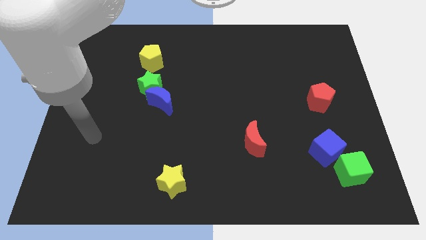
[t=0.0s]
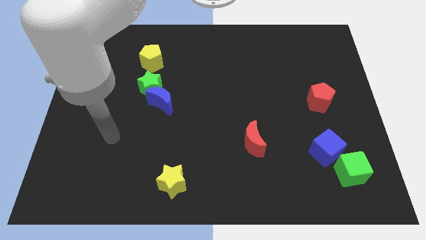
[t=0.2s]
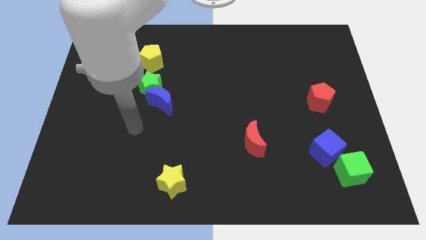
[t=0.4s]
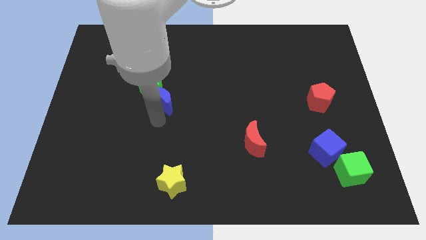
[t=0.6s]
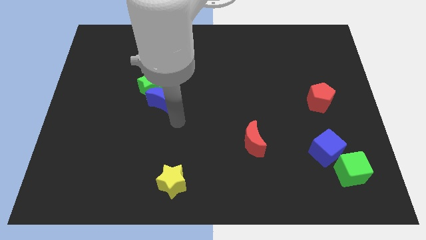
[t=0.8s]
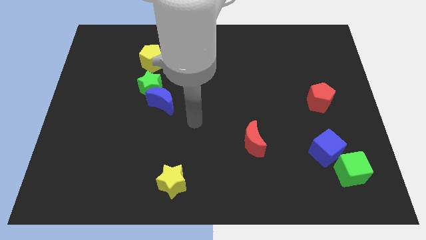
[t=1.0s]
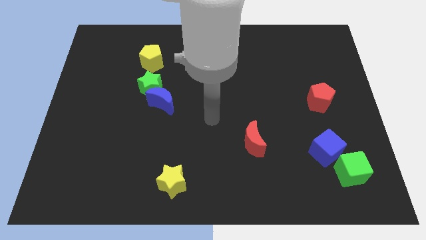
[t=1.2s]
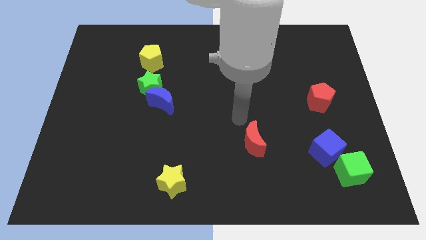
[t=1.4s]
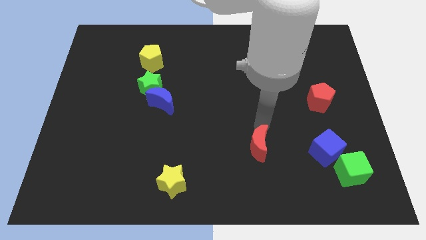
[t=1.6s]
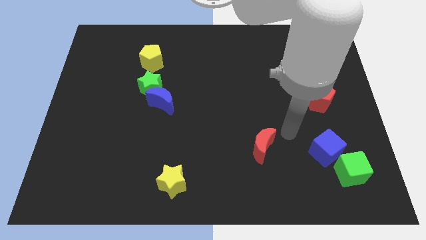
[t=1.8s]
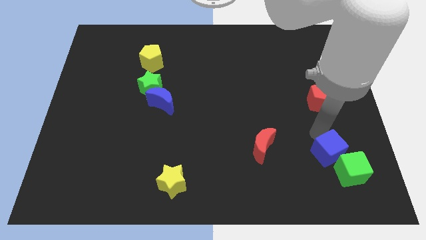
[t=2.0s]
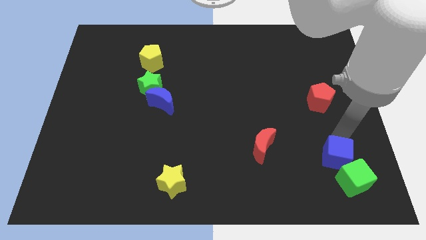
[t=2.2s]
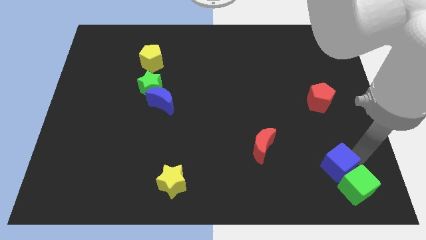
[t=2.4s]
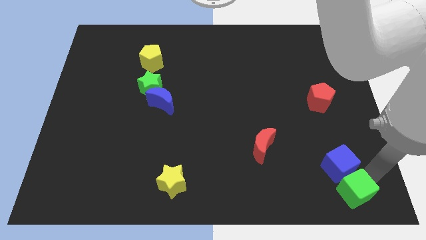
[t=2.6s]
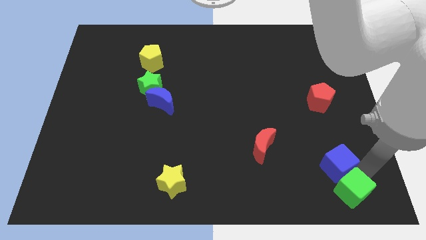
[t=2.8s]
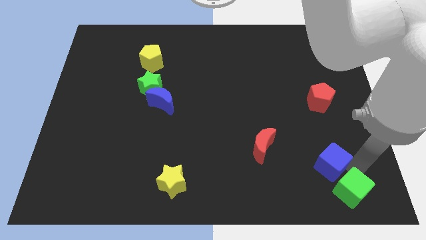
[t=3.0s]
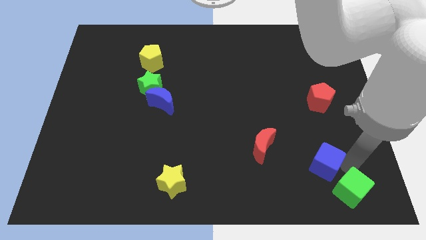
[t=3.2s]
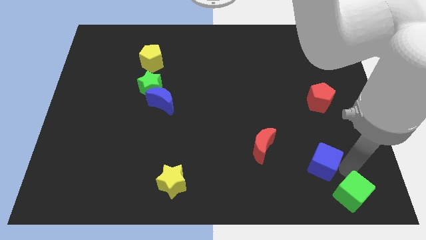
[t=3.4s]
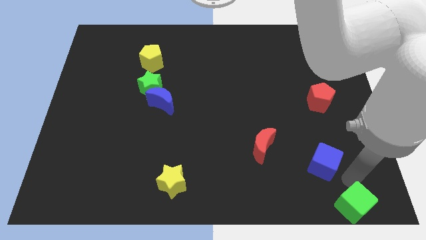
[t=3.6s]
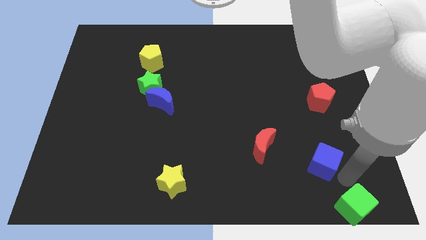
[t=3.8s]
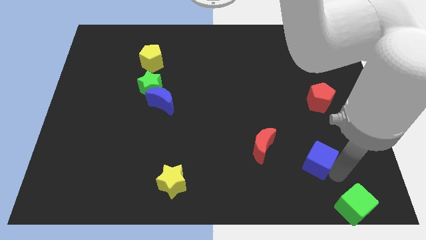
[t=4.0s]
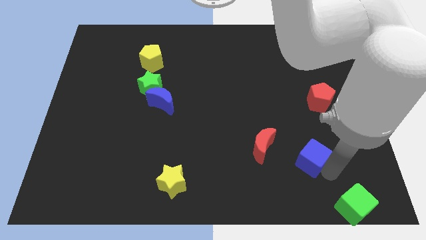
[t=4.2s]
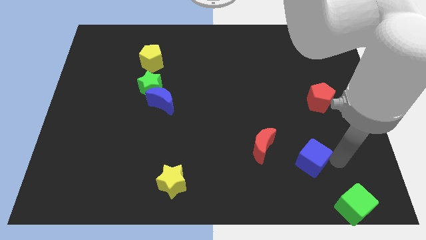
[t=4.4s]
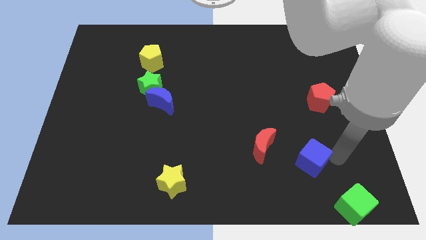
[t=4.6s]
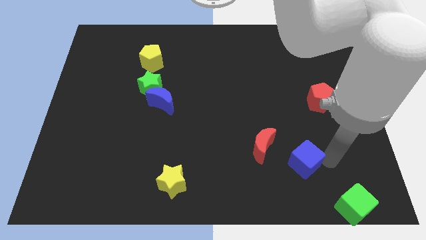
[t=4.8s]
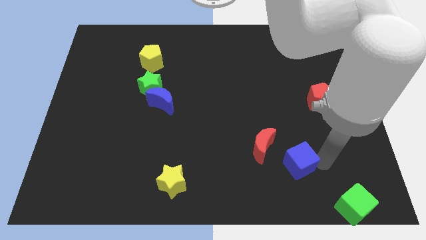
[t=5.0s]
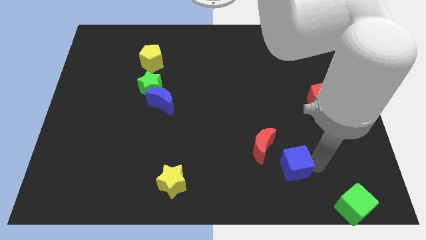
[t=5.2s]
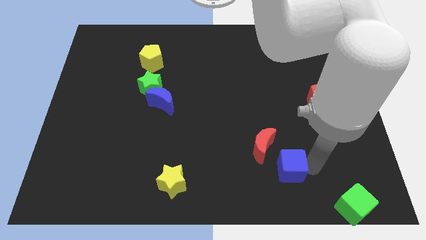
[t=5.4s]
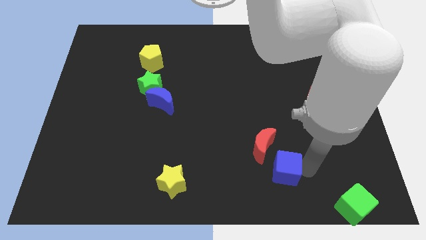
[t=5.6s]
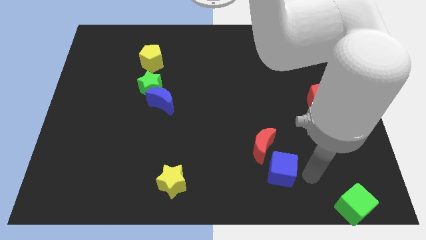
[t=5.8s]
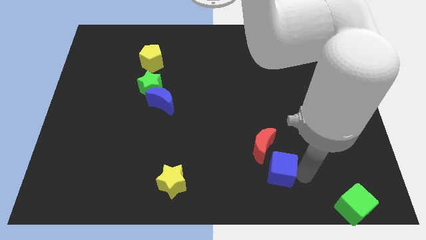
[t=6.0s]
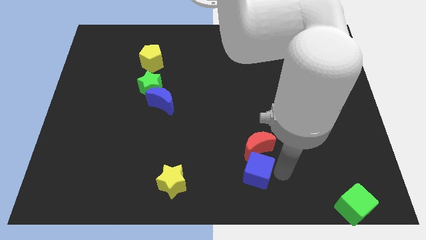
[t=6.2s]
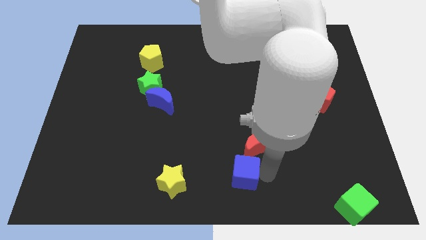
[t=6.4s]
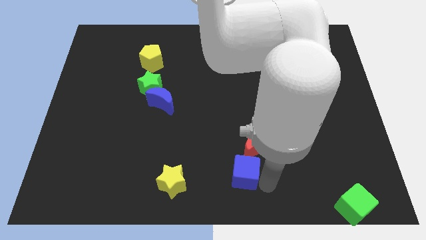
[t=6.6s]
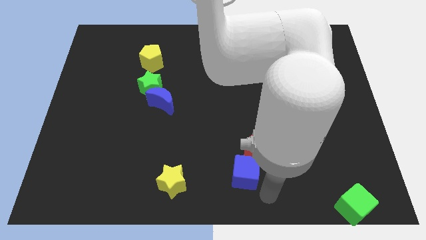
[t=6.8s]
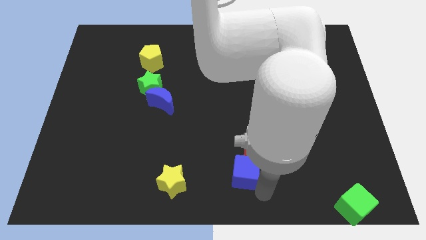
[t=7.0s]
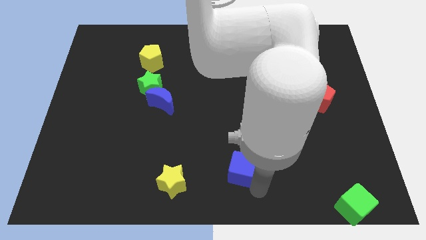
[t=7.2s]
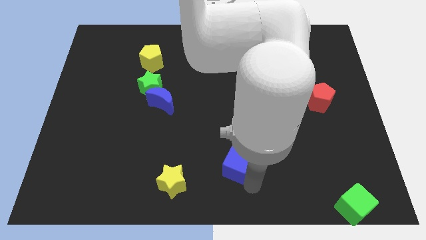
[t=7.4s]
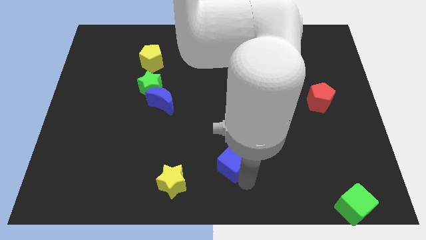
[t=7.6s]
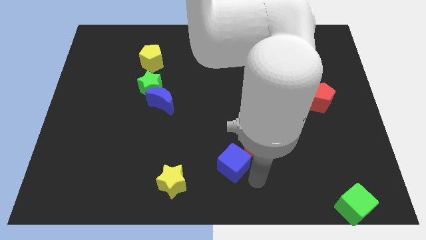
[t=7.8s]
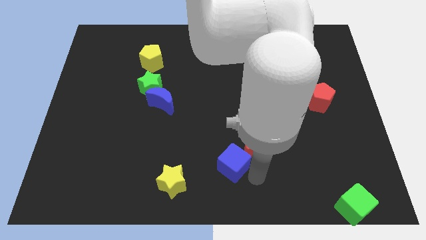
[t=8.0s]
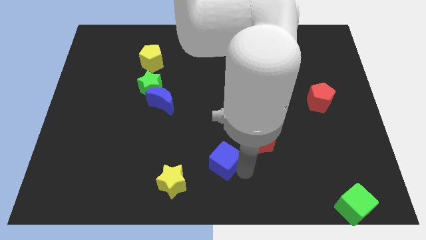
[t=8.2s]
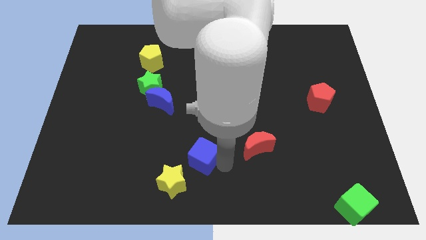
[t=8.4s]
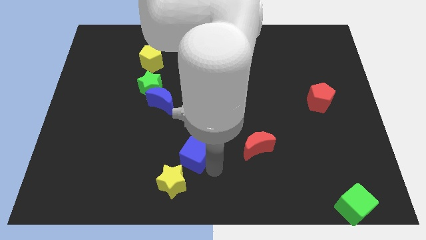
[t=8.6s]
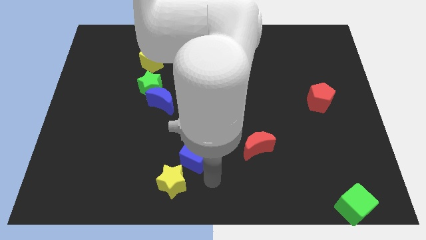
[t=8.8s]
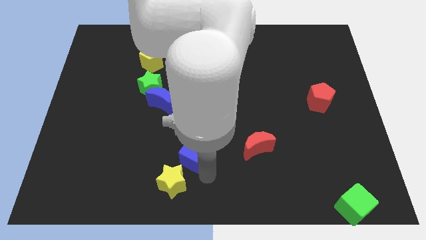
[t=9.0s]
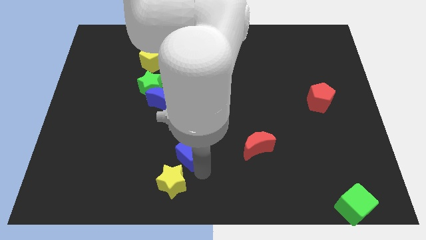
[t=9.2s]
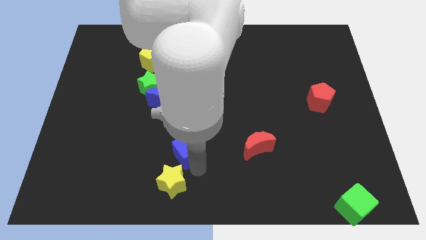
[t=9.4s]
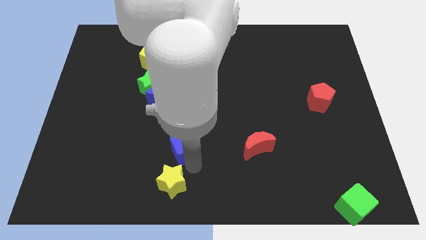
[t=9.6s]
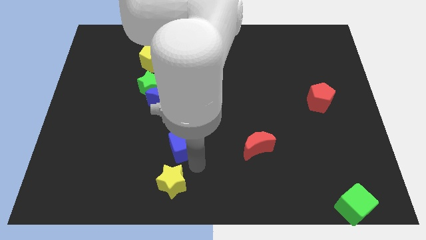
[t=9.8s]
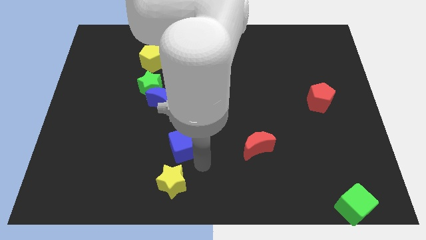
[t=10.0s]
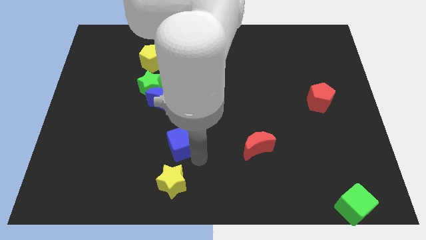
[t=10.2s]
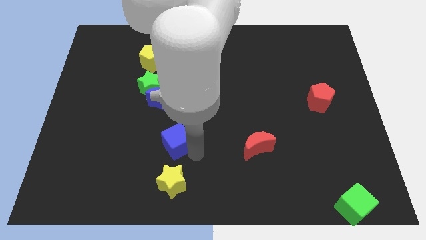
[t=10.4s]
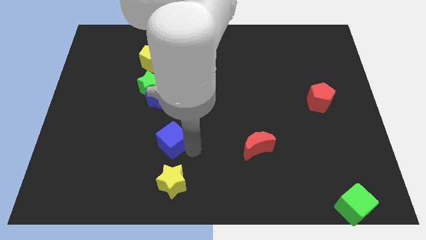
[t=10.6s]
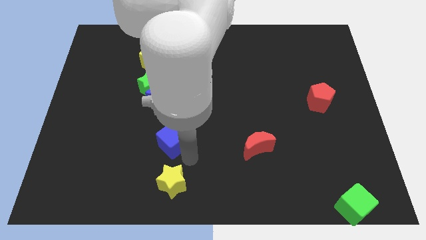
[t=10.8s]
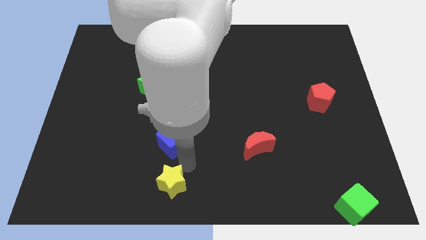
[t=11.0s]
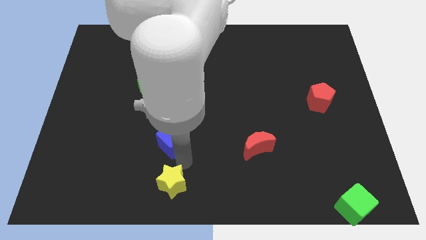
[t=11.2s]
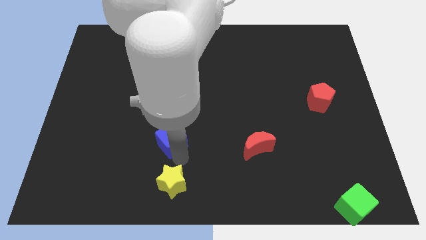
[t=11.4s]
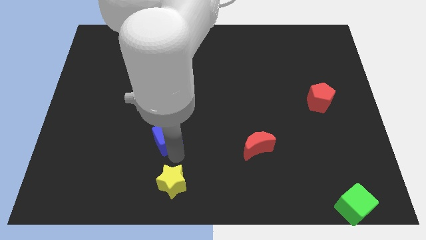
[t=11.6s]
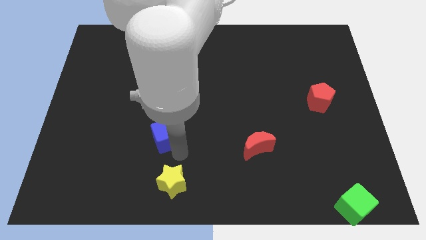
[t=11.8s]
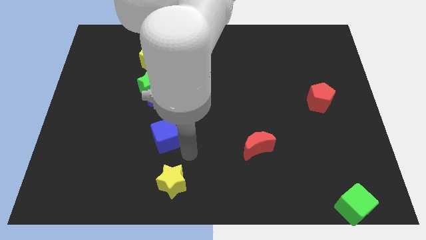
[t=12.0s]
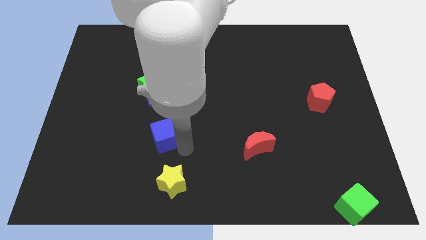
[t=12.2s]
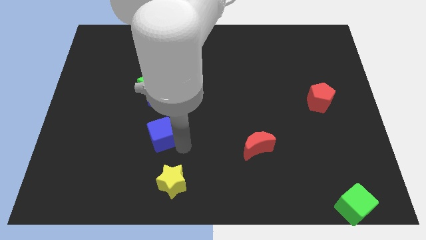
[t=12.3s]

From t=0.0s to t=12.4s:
slide the blue cube to the bottom side of the green star

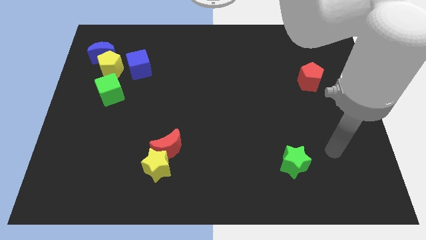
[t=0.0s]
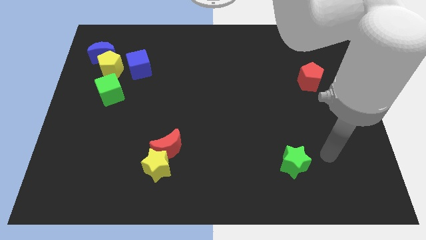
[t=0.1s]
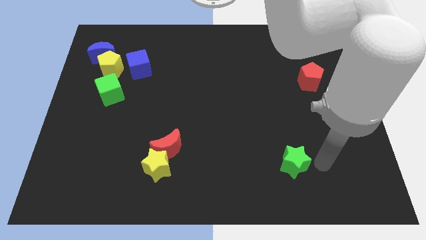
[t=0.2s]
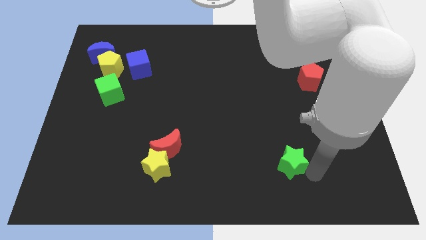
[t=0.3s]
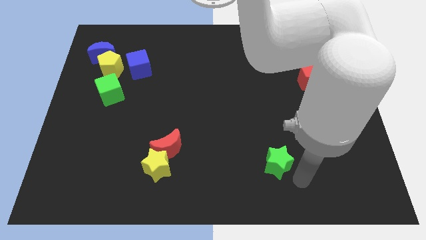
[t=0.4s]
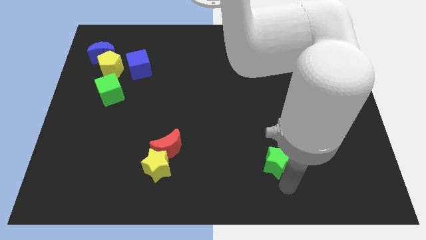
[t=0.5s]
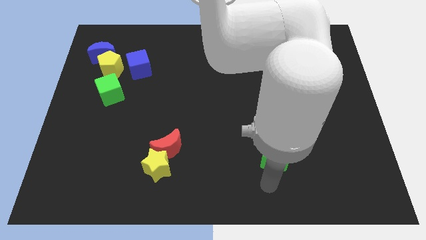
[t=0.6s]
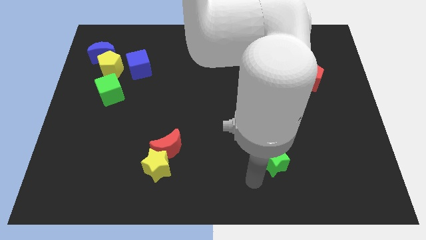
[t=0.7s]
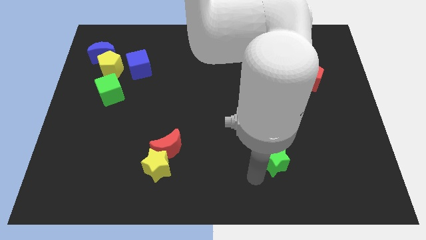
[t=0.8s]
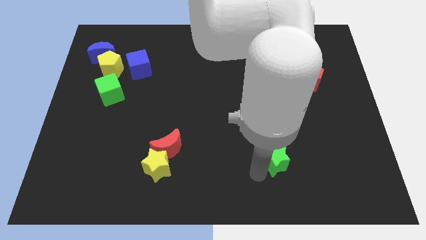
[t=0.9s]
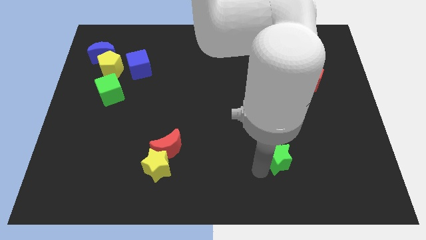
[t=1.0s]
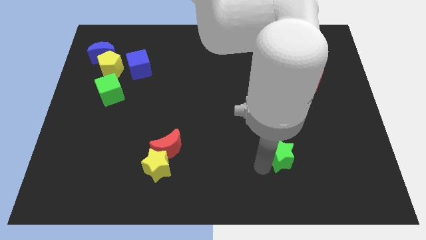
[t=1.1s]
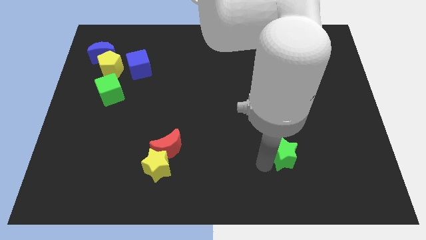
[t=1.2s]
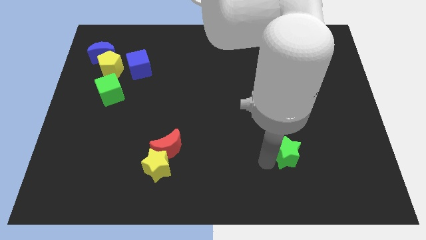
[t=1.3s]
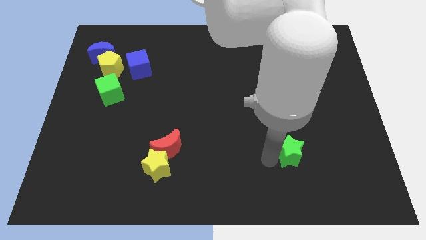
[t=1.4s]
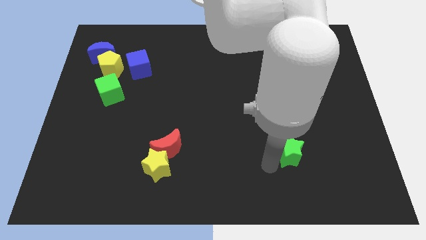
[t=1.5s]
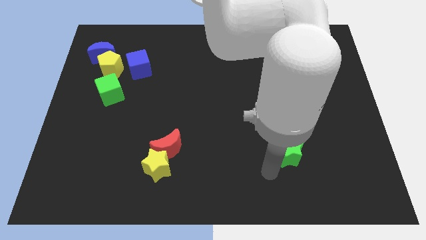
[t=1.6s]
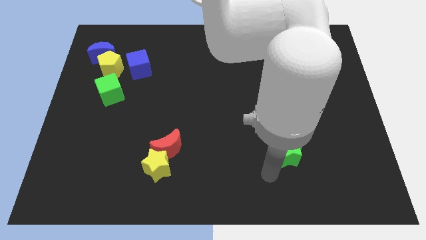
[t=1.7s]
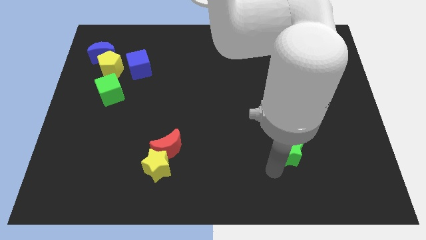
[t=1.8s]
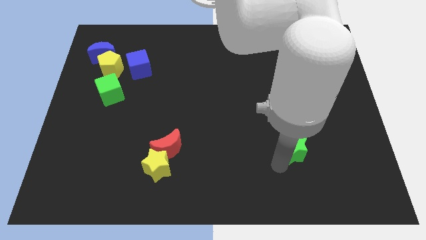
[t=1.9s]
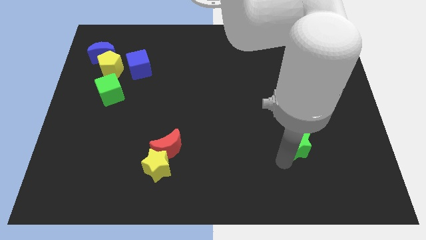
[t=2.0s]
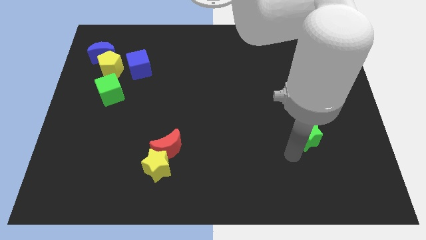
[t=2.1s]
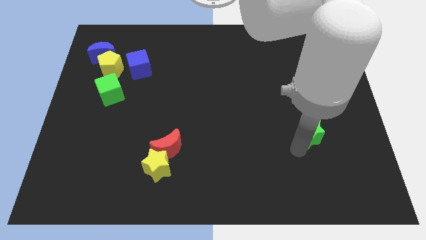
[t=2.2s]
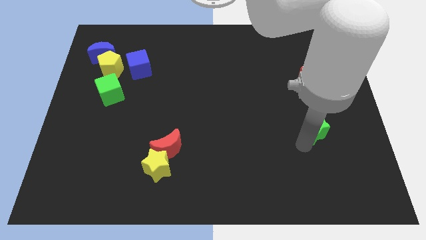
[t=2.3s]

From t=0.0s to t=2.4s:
put the green star to the bottom side of the red pentagon
